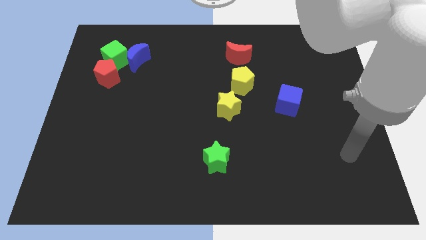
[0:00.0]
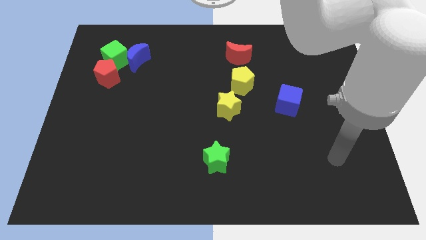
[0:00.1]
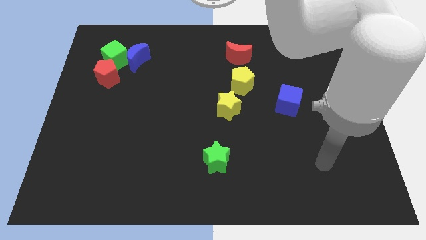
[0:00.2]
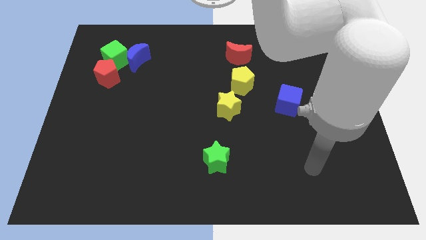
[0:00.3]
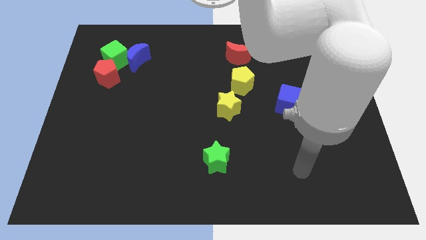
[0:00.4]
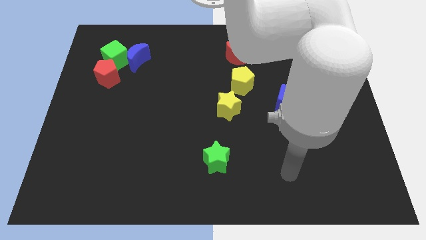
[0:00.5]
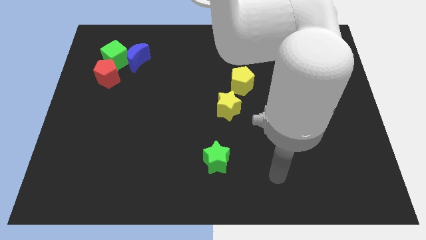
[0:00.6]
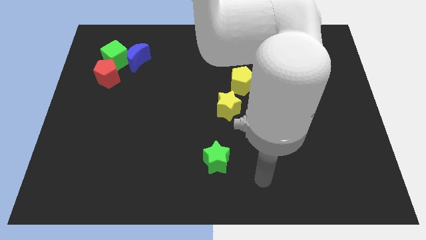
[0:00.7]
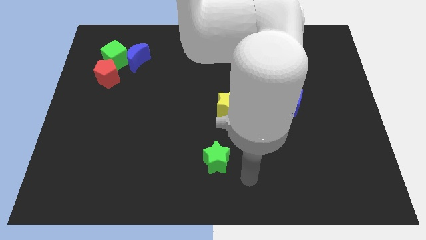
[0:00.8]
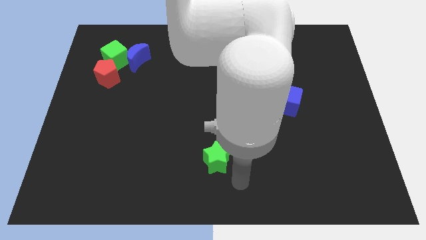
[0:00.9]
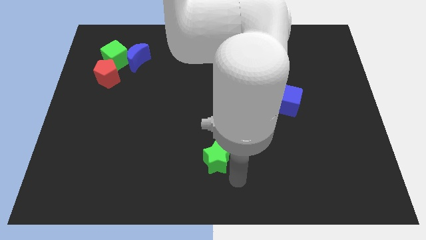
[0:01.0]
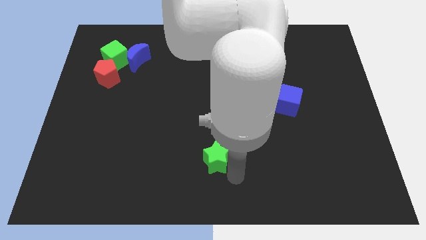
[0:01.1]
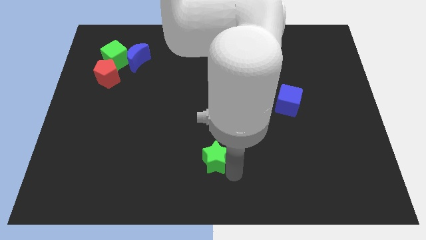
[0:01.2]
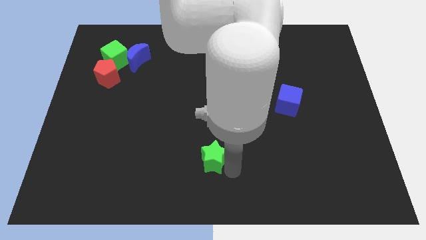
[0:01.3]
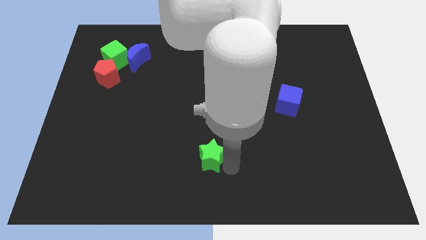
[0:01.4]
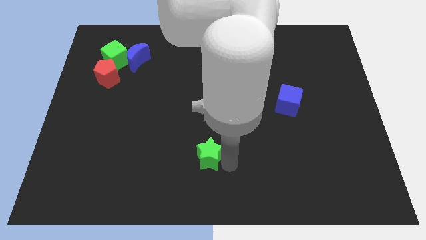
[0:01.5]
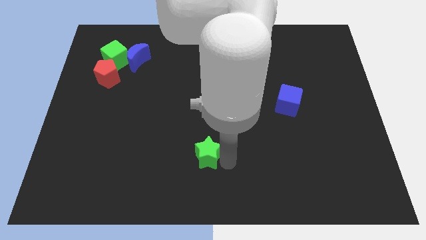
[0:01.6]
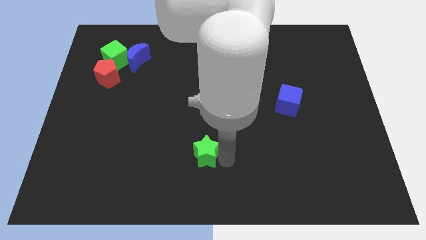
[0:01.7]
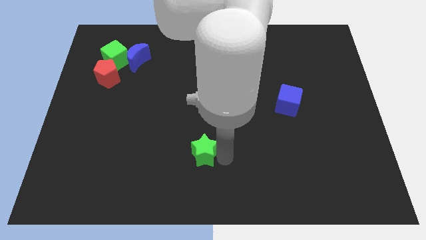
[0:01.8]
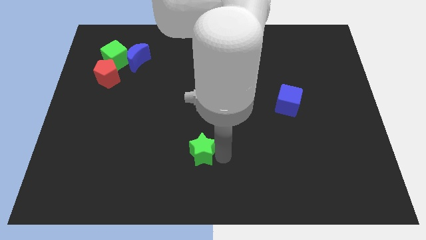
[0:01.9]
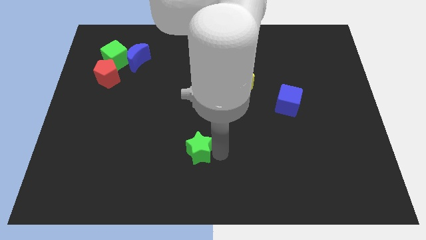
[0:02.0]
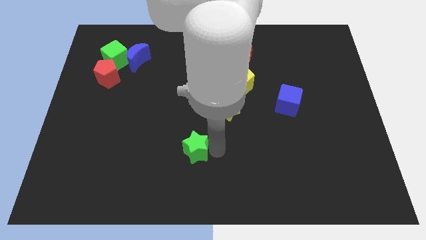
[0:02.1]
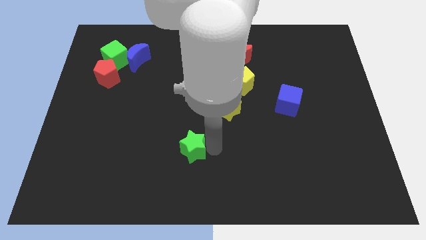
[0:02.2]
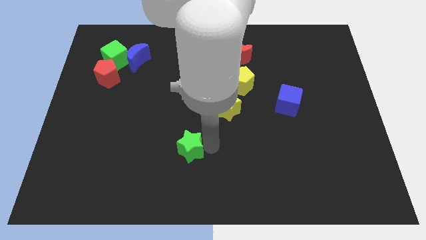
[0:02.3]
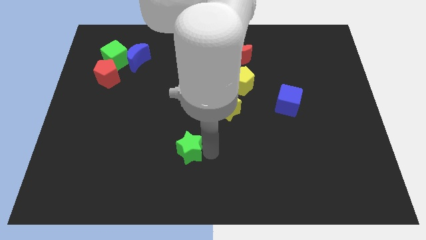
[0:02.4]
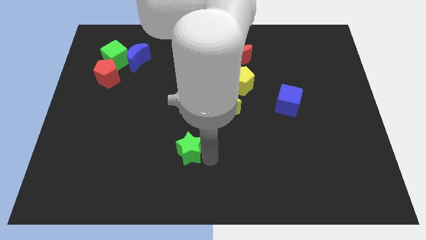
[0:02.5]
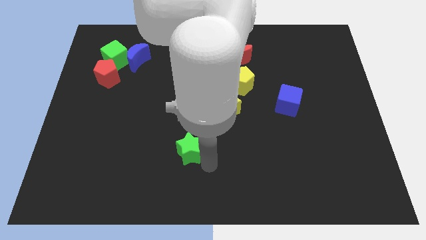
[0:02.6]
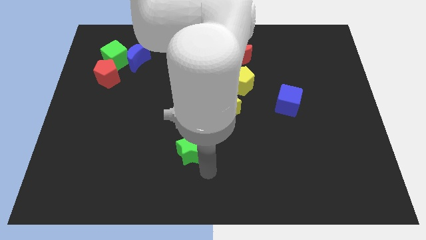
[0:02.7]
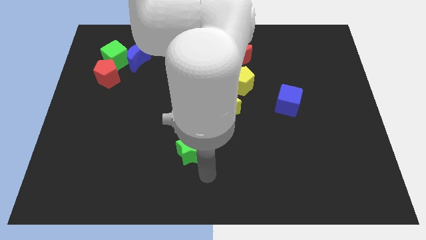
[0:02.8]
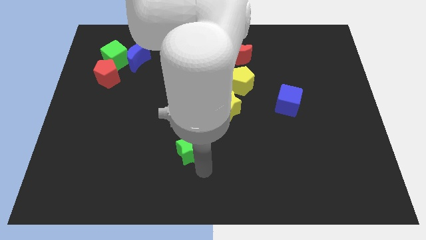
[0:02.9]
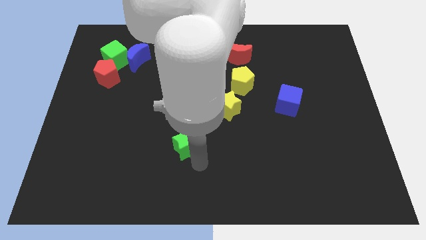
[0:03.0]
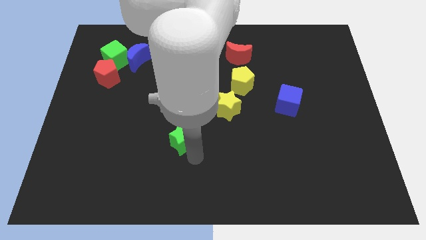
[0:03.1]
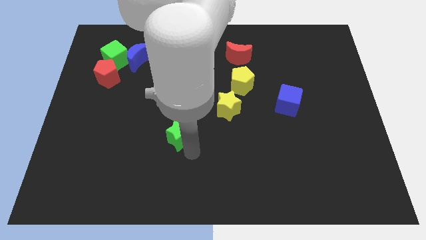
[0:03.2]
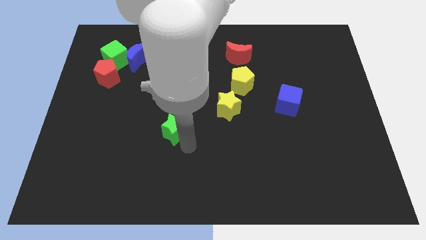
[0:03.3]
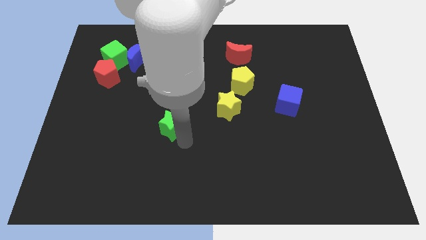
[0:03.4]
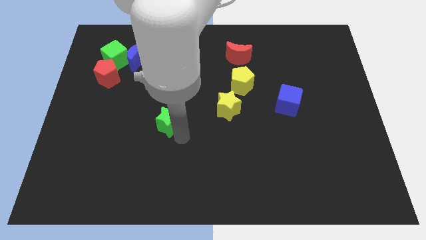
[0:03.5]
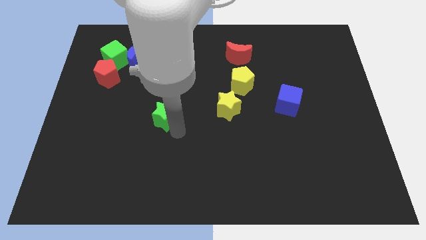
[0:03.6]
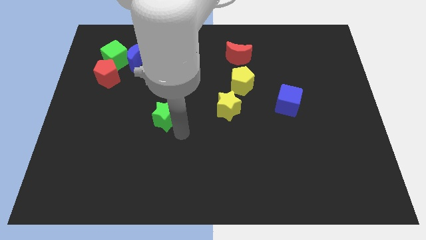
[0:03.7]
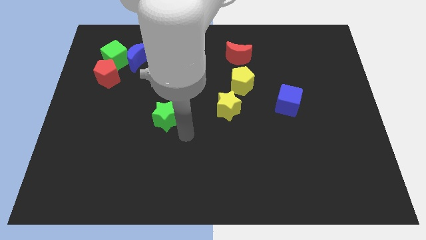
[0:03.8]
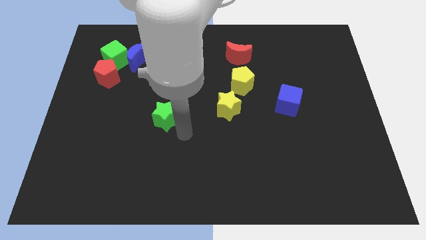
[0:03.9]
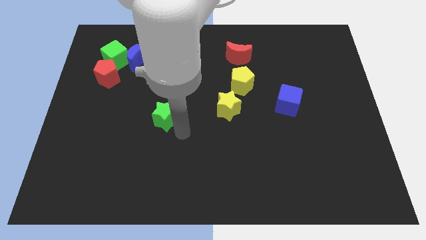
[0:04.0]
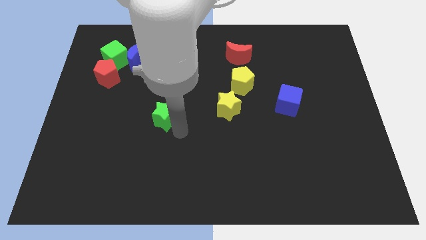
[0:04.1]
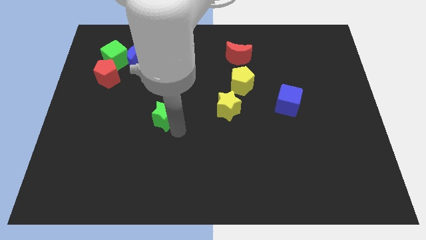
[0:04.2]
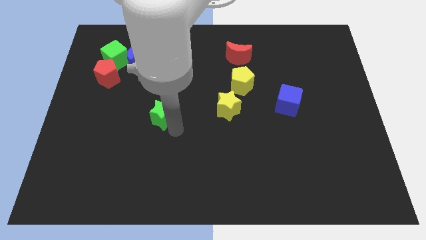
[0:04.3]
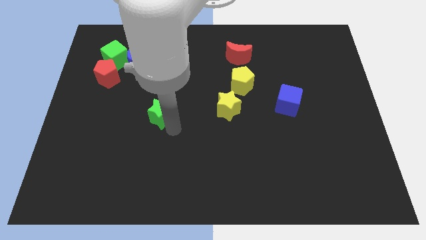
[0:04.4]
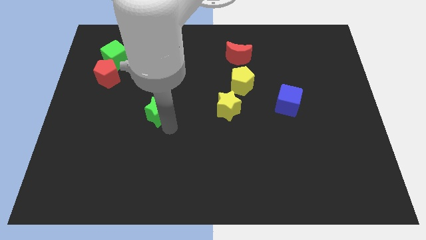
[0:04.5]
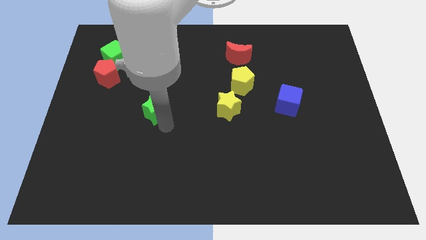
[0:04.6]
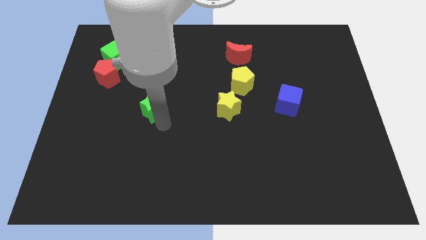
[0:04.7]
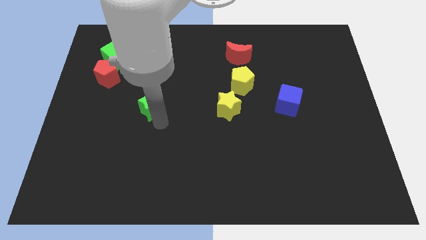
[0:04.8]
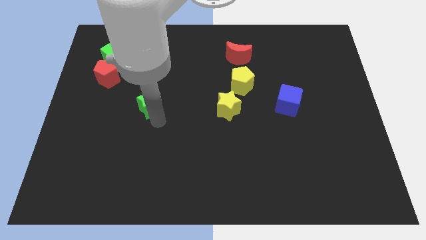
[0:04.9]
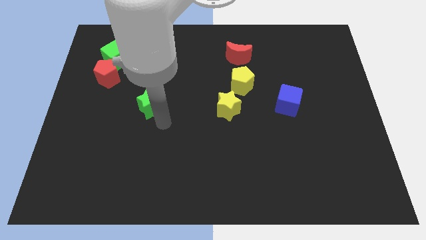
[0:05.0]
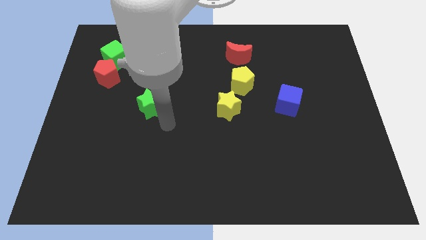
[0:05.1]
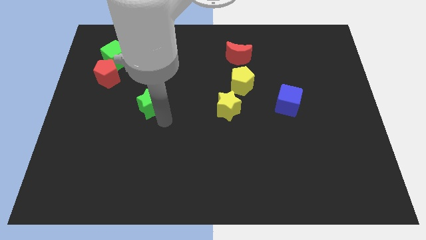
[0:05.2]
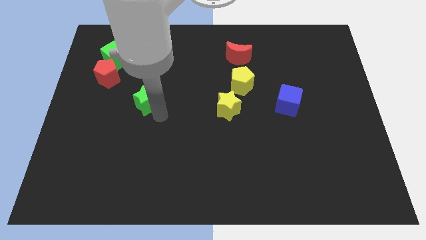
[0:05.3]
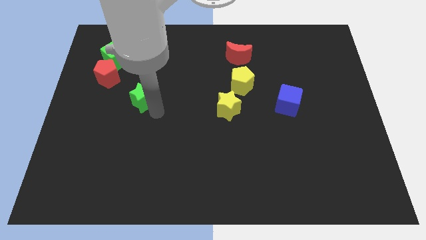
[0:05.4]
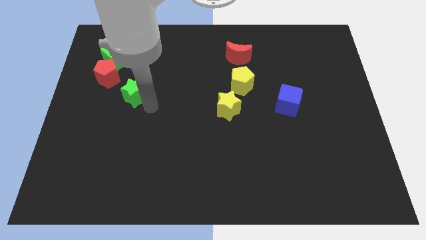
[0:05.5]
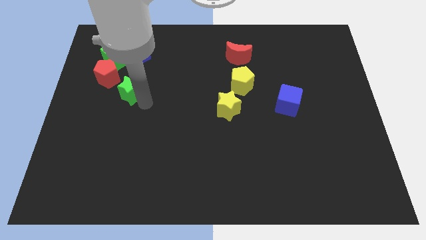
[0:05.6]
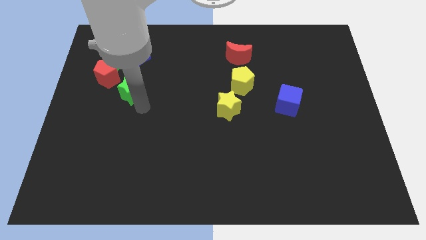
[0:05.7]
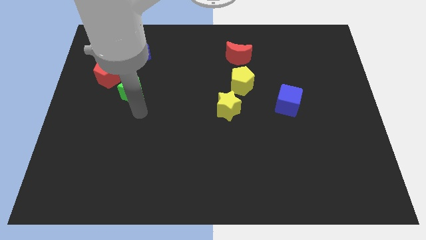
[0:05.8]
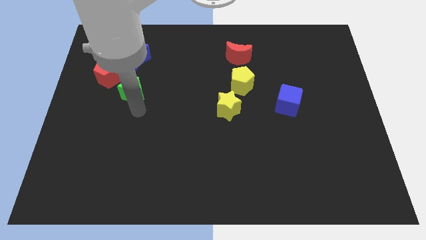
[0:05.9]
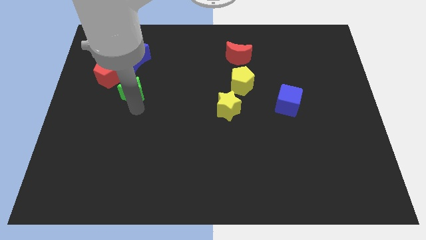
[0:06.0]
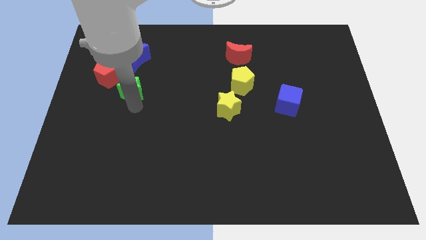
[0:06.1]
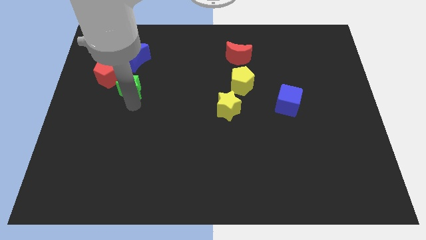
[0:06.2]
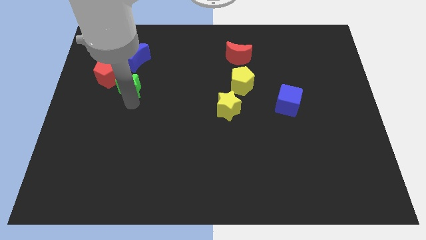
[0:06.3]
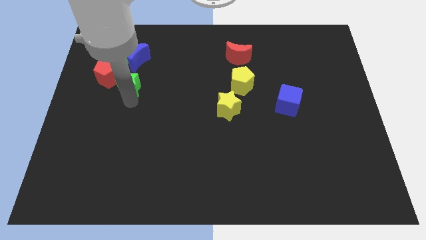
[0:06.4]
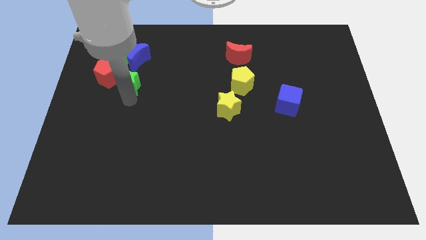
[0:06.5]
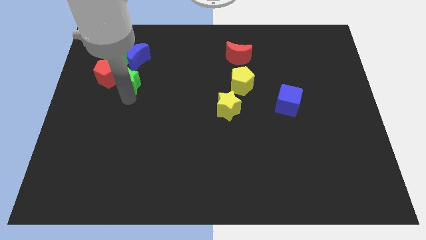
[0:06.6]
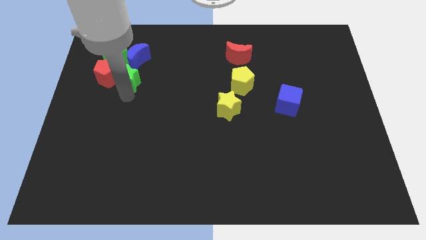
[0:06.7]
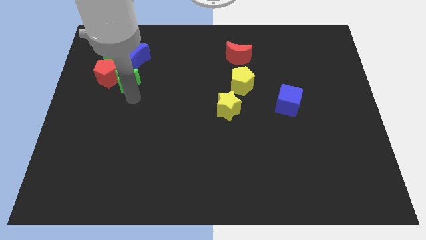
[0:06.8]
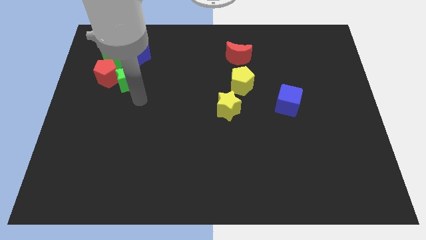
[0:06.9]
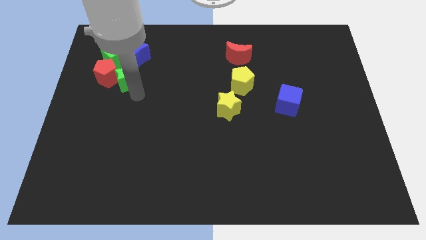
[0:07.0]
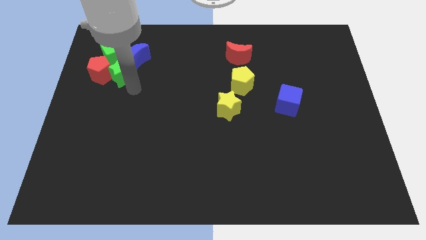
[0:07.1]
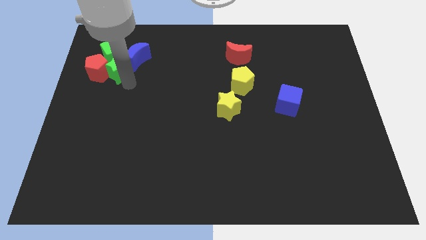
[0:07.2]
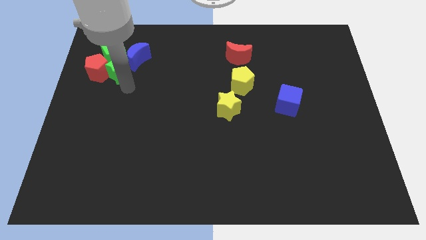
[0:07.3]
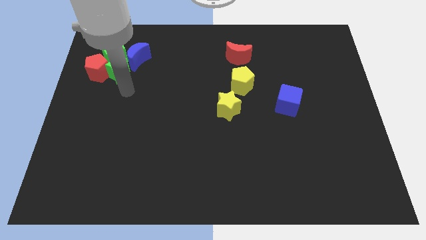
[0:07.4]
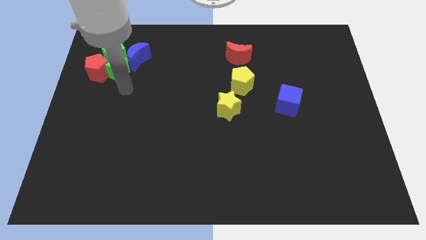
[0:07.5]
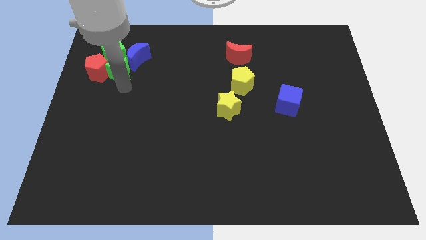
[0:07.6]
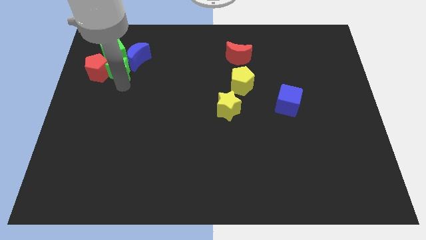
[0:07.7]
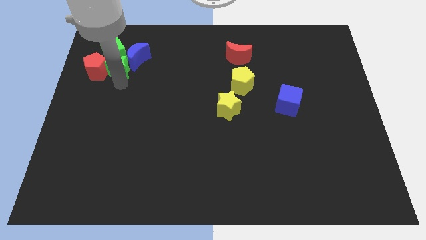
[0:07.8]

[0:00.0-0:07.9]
push the green star to the green cube
